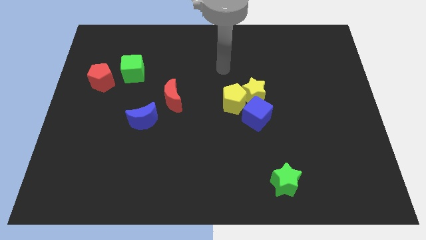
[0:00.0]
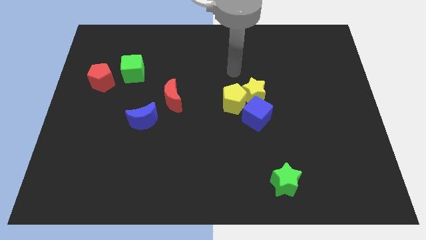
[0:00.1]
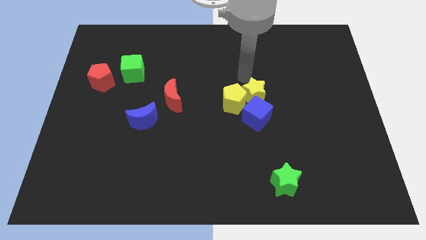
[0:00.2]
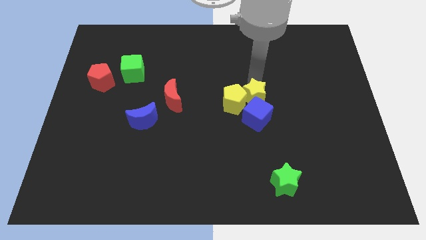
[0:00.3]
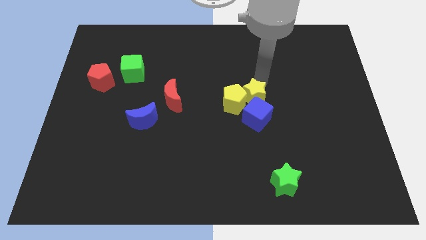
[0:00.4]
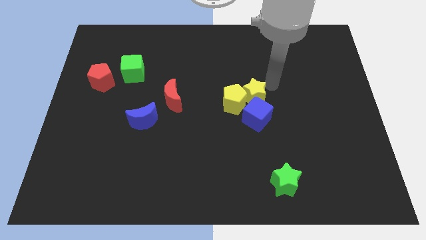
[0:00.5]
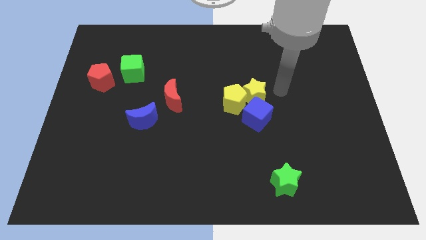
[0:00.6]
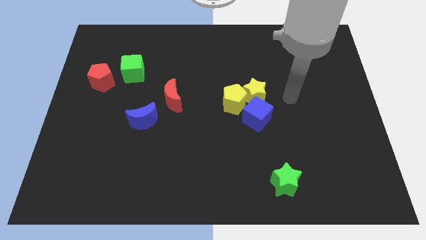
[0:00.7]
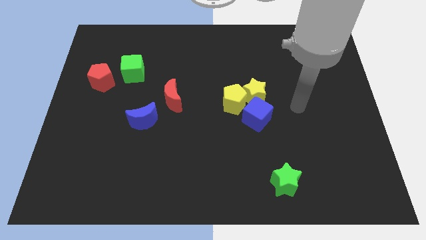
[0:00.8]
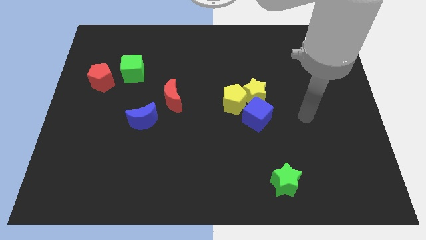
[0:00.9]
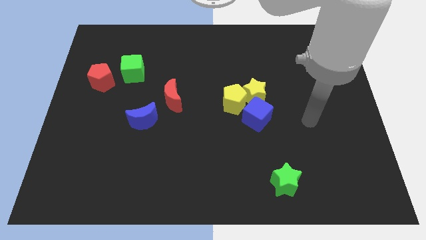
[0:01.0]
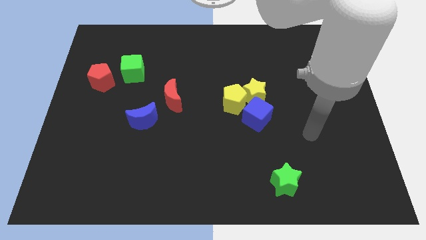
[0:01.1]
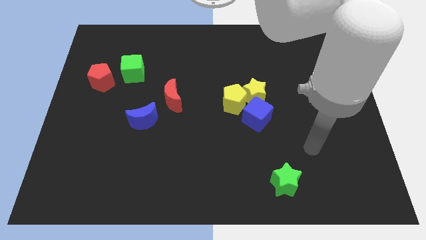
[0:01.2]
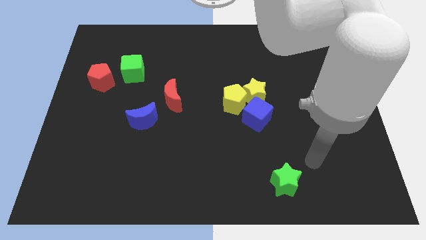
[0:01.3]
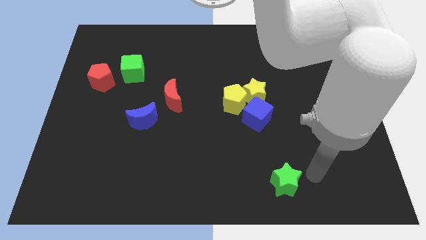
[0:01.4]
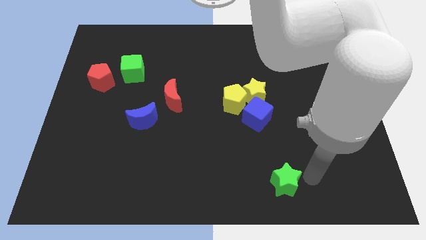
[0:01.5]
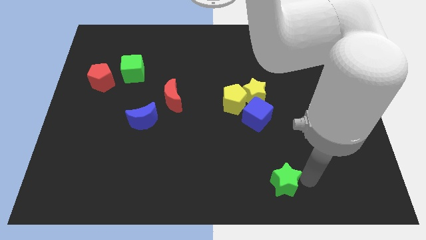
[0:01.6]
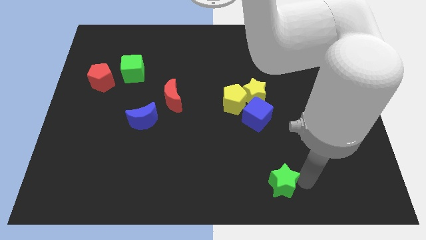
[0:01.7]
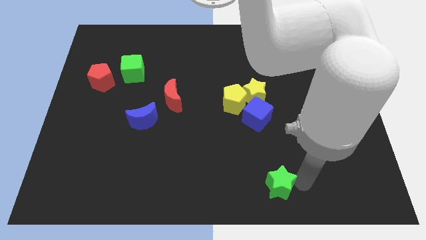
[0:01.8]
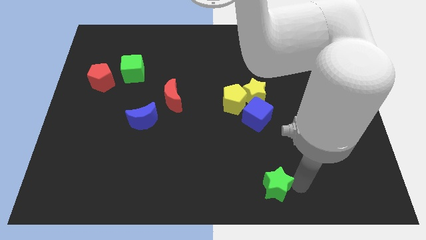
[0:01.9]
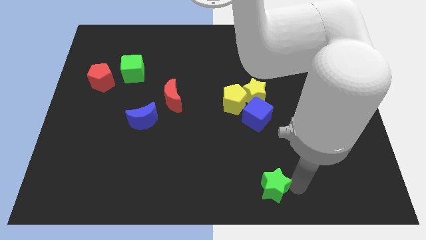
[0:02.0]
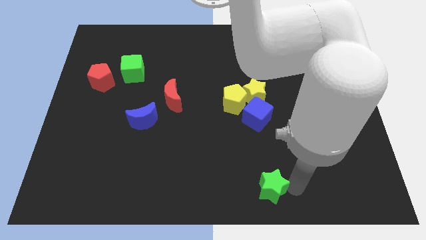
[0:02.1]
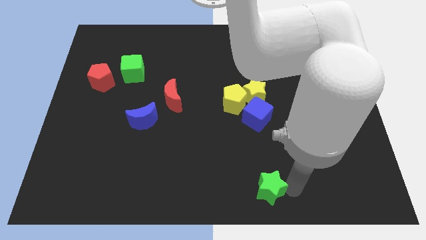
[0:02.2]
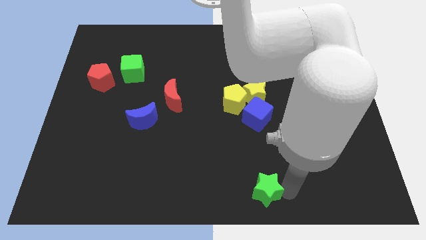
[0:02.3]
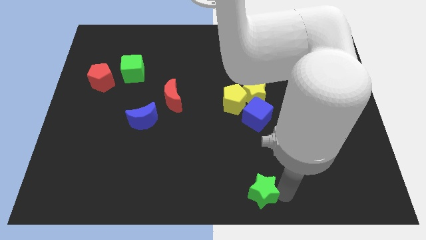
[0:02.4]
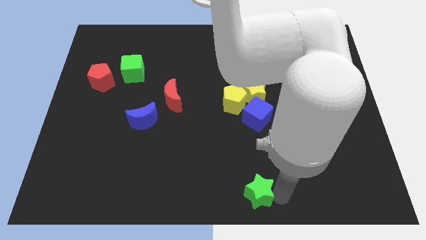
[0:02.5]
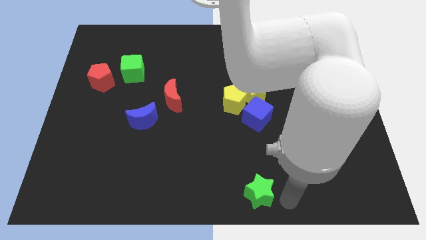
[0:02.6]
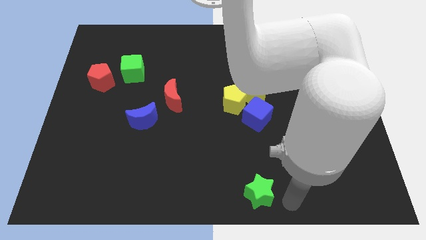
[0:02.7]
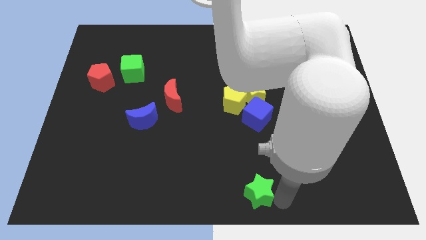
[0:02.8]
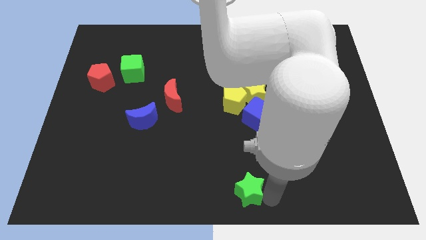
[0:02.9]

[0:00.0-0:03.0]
slide the green star to the left slightly

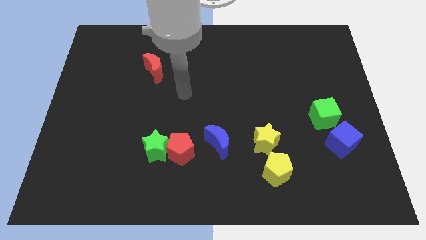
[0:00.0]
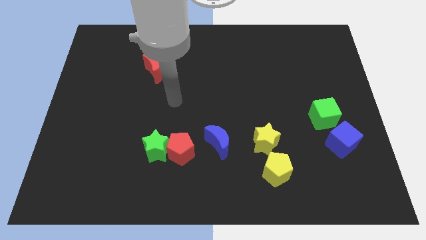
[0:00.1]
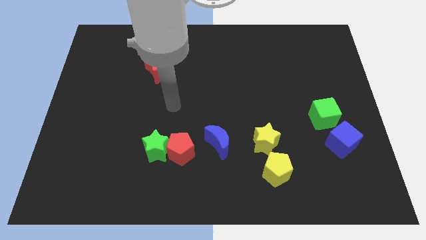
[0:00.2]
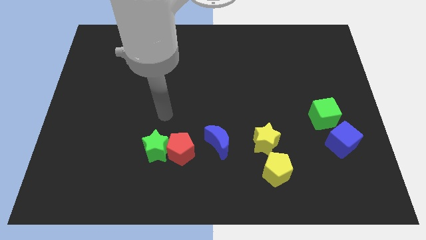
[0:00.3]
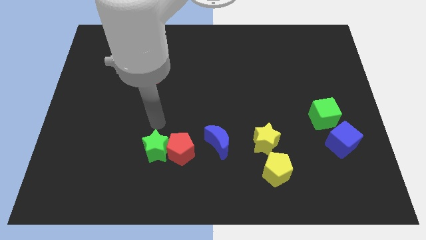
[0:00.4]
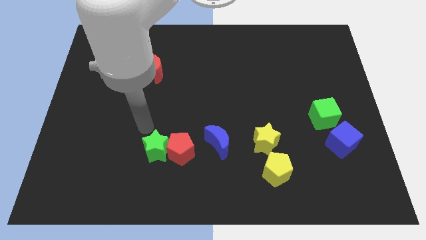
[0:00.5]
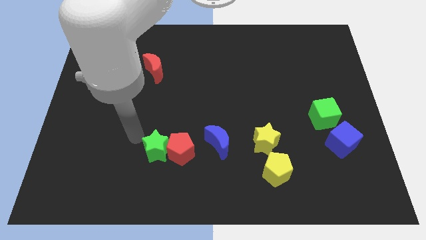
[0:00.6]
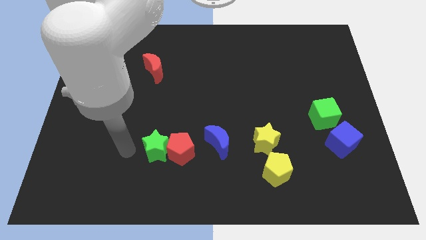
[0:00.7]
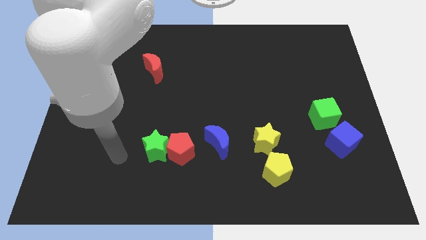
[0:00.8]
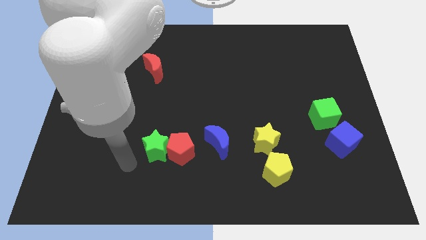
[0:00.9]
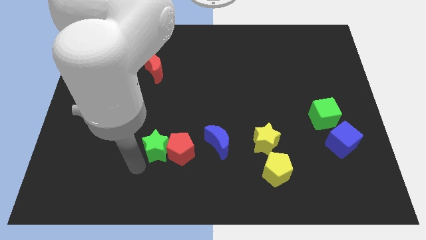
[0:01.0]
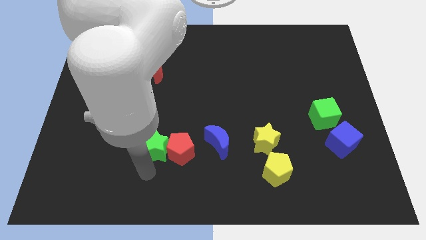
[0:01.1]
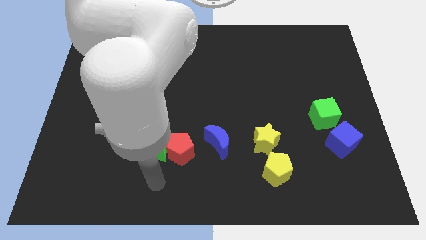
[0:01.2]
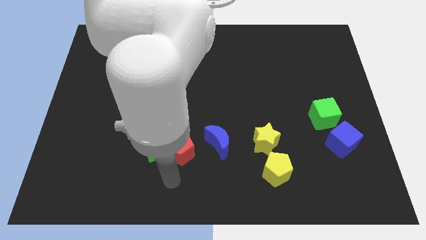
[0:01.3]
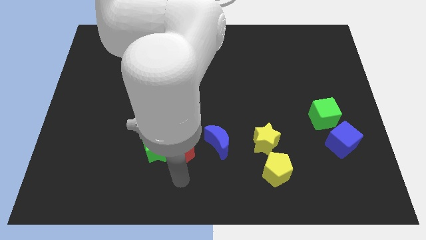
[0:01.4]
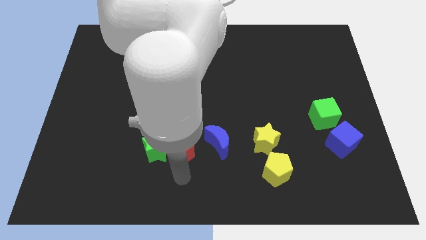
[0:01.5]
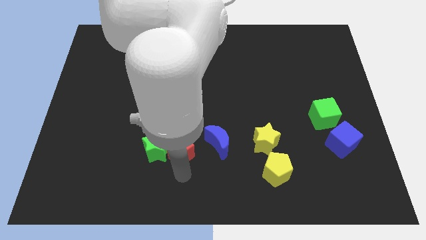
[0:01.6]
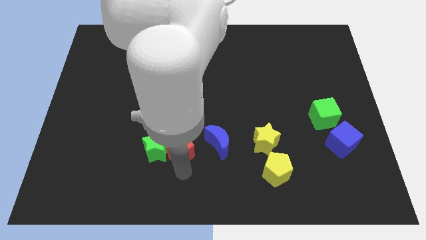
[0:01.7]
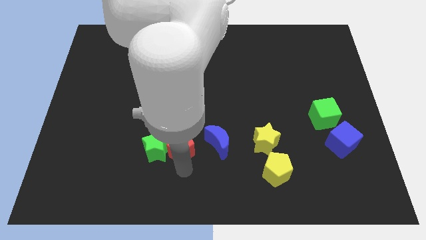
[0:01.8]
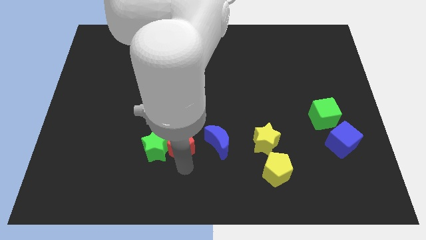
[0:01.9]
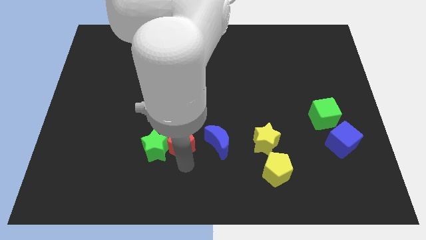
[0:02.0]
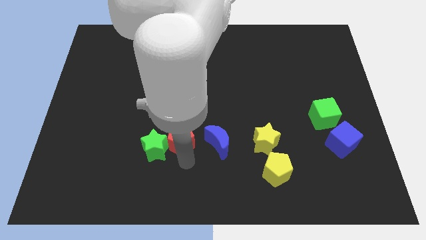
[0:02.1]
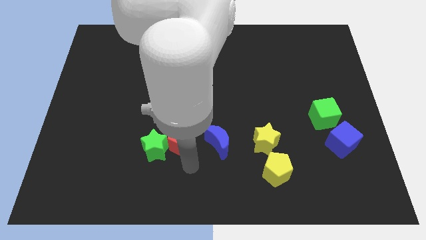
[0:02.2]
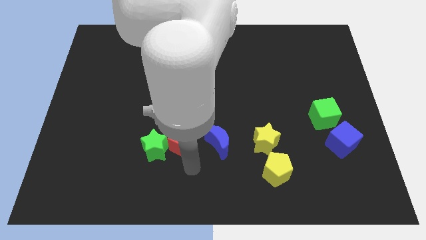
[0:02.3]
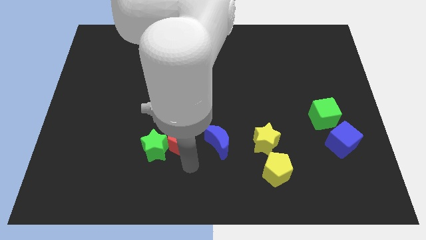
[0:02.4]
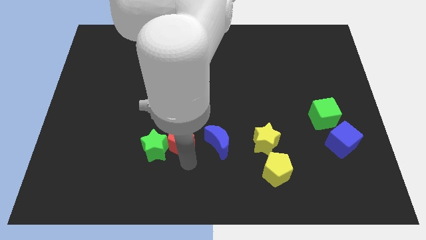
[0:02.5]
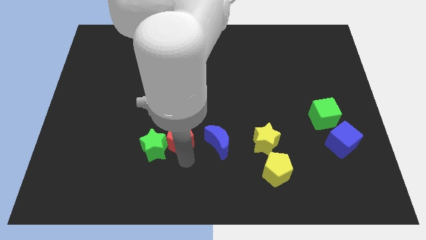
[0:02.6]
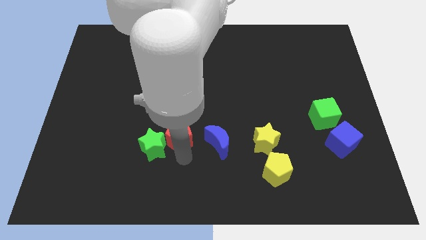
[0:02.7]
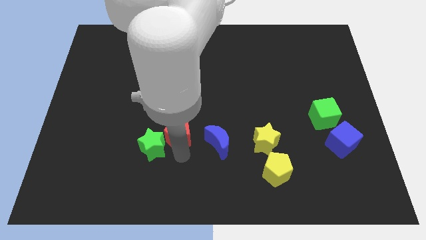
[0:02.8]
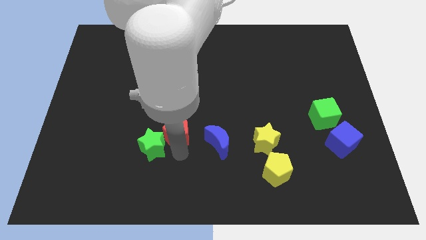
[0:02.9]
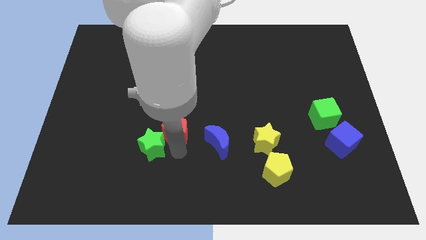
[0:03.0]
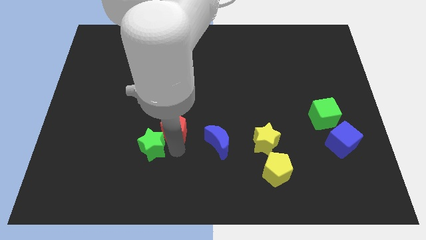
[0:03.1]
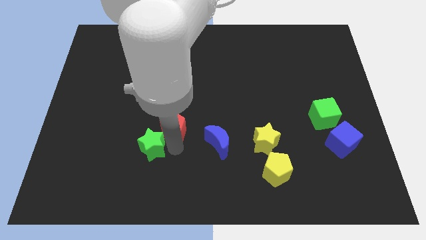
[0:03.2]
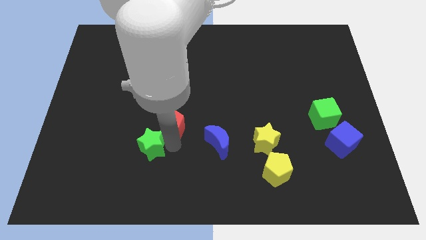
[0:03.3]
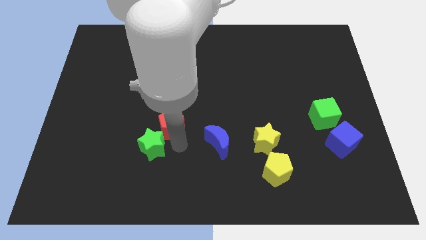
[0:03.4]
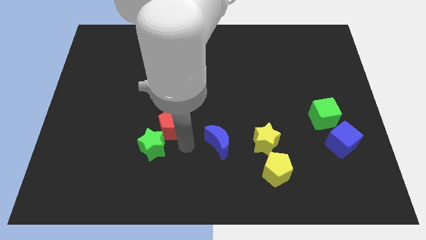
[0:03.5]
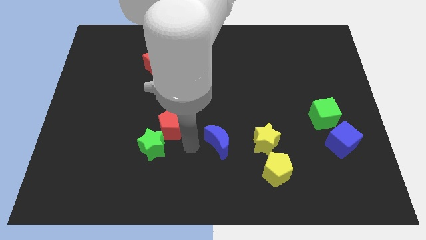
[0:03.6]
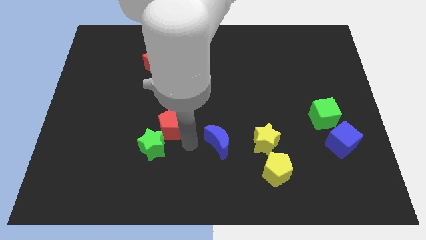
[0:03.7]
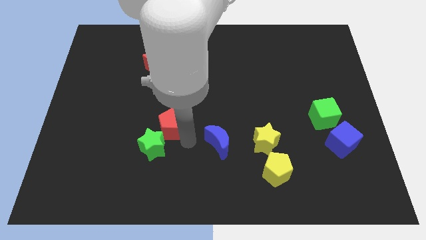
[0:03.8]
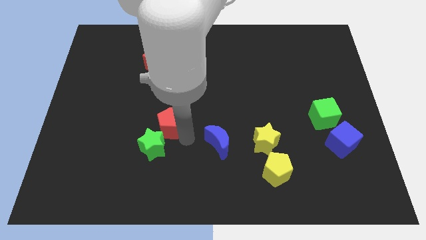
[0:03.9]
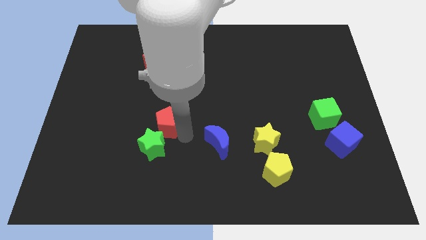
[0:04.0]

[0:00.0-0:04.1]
slightly push the red pentagon upwards and left diagonally

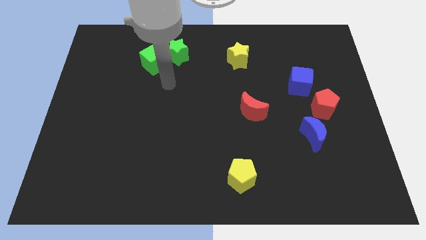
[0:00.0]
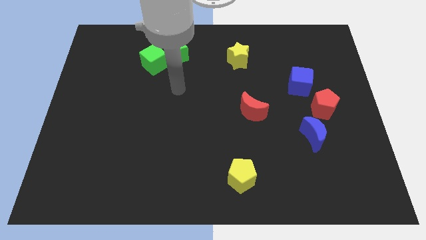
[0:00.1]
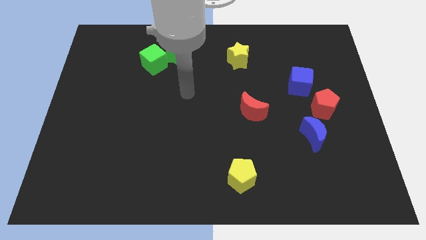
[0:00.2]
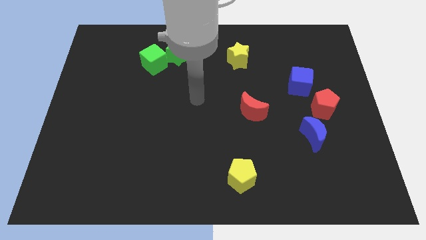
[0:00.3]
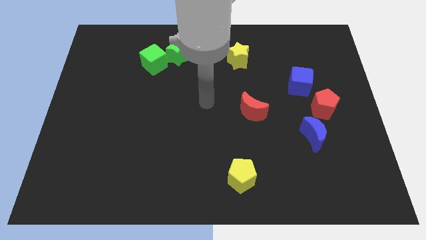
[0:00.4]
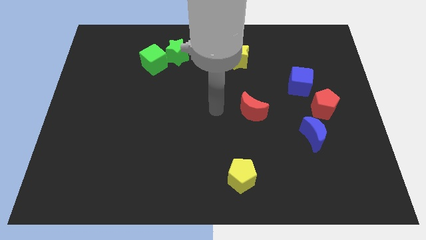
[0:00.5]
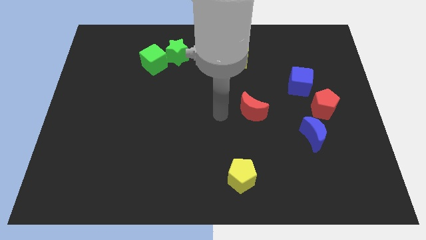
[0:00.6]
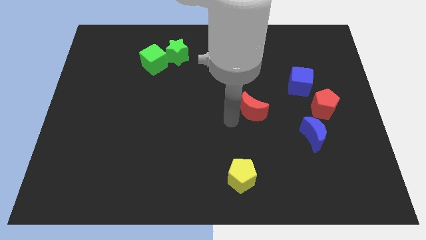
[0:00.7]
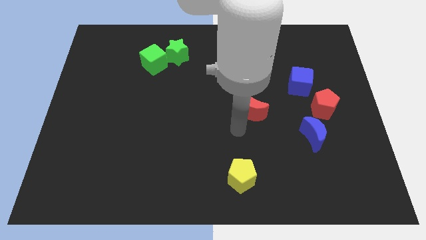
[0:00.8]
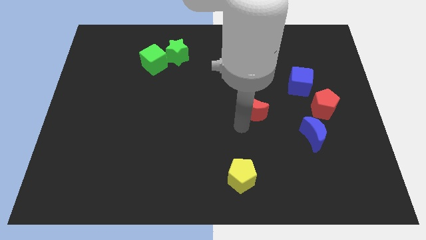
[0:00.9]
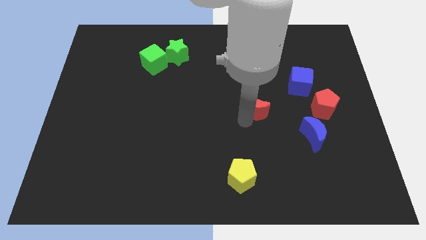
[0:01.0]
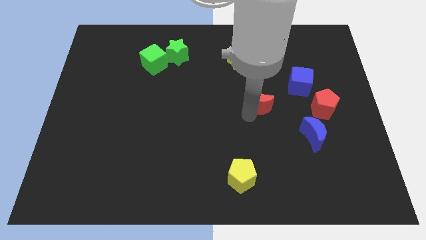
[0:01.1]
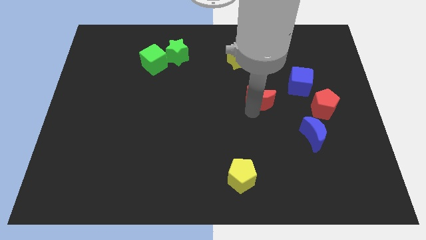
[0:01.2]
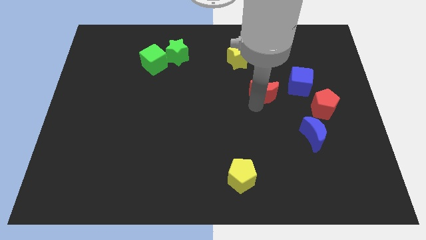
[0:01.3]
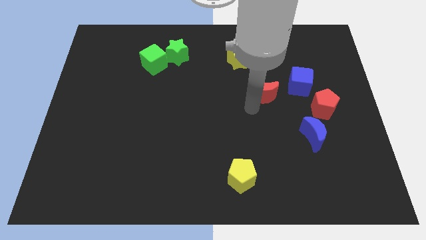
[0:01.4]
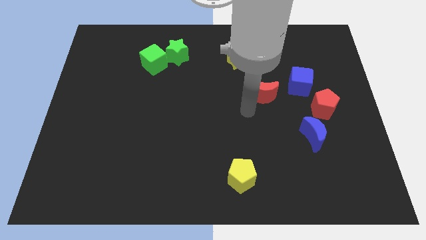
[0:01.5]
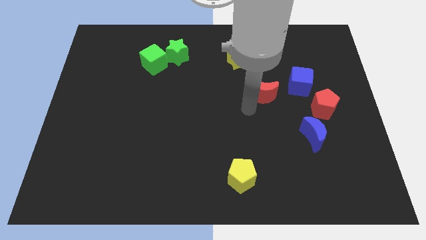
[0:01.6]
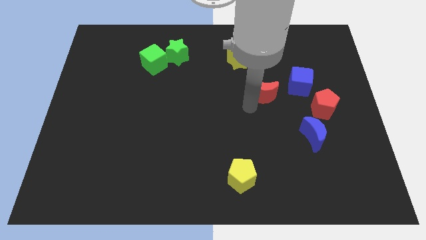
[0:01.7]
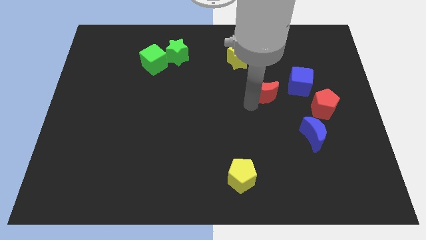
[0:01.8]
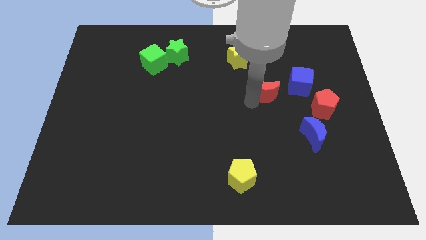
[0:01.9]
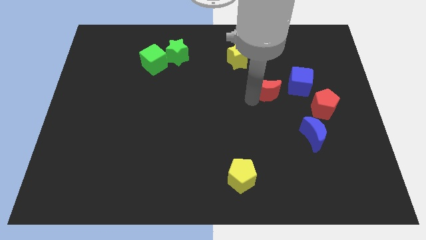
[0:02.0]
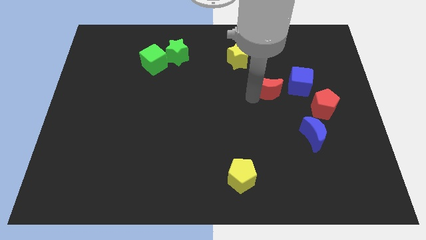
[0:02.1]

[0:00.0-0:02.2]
slide the red moon somewhat diagonally upwards and to the right
